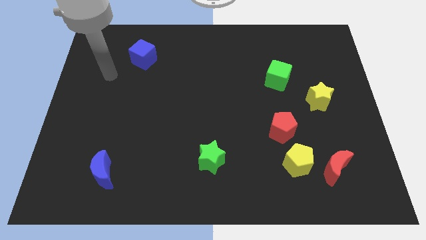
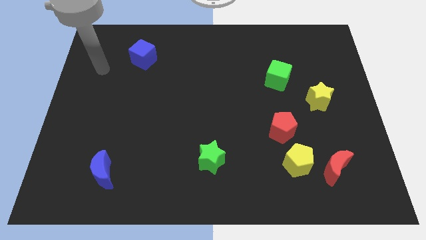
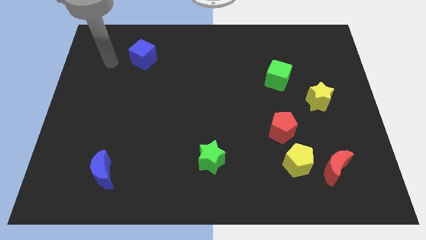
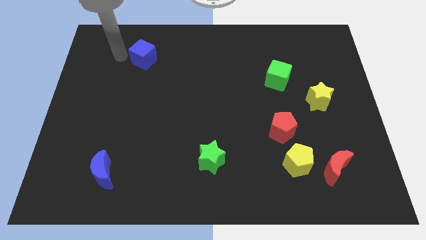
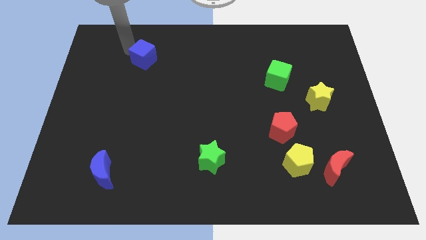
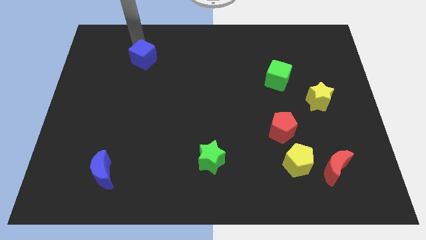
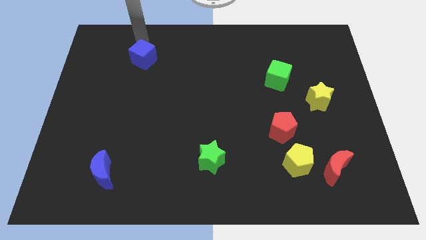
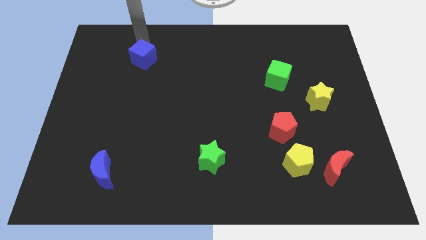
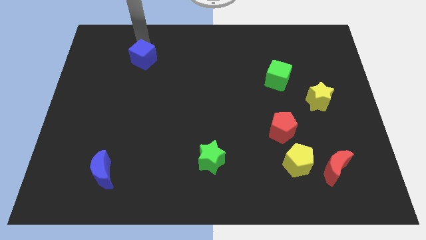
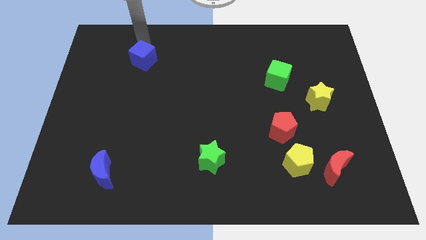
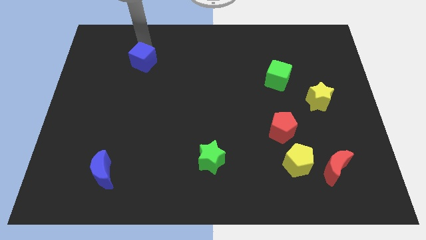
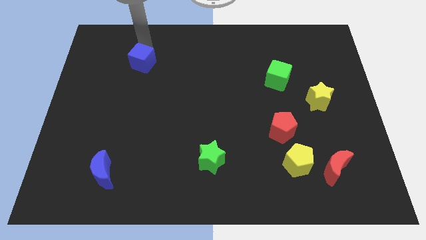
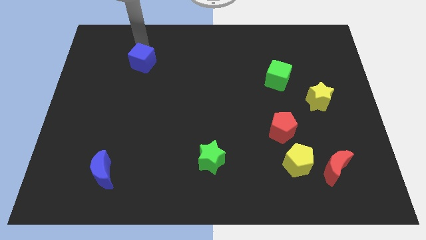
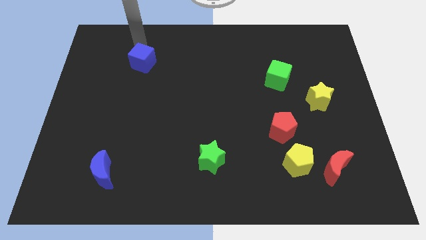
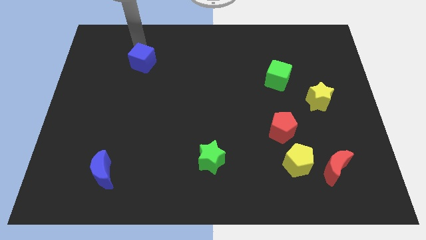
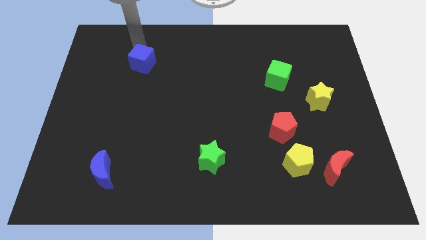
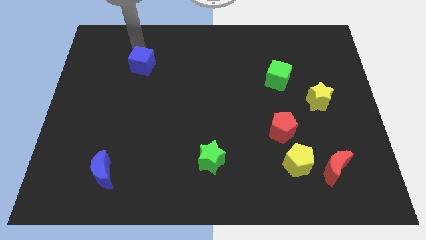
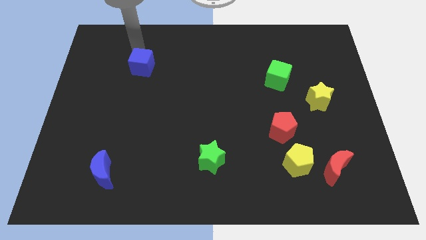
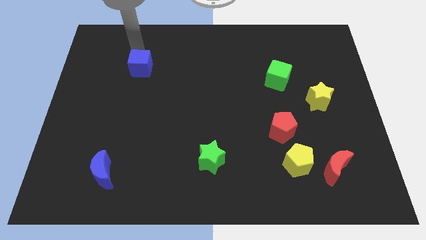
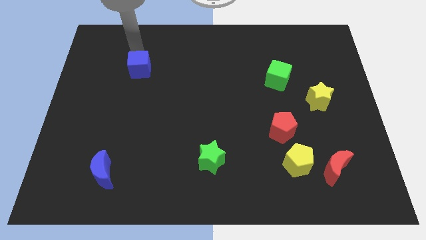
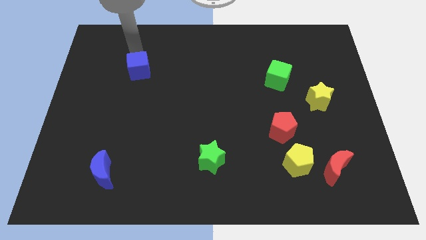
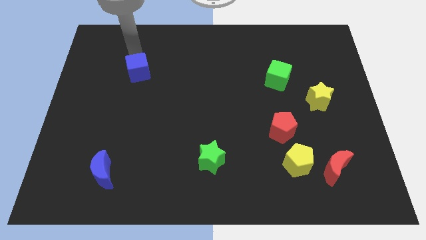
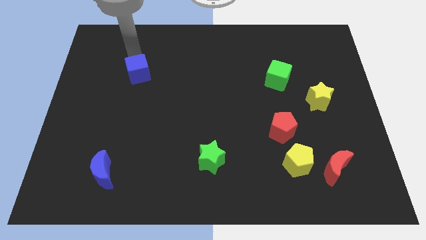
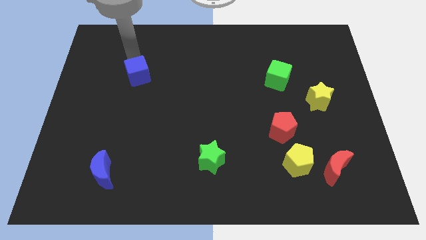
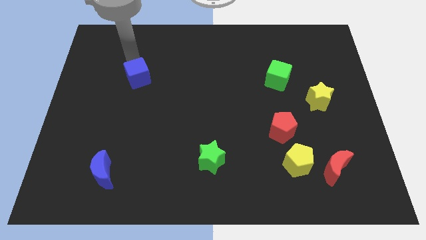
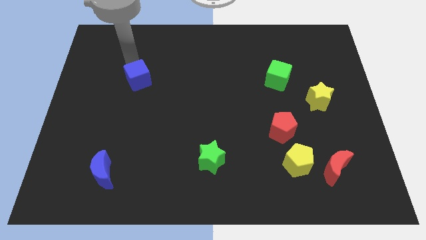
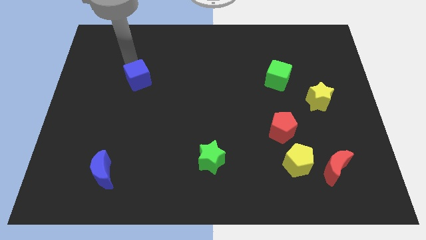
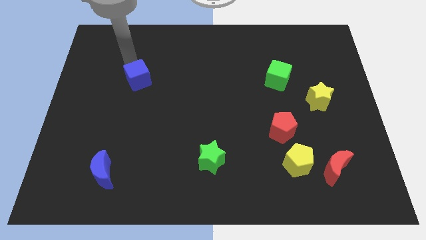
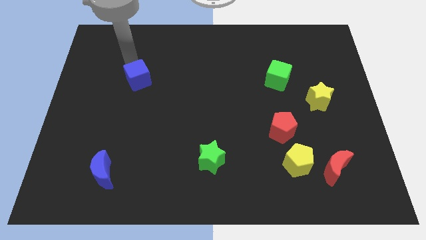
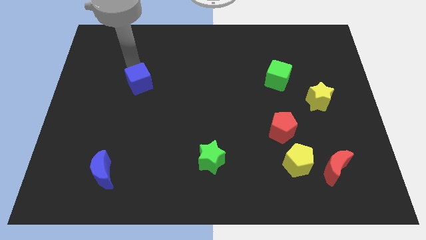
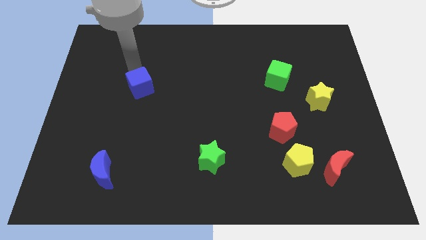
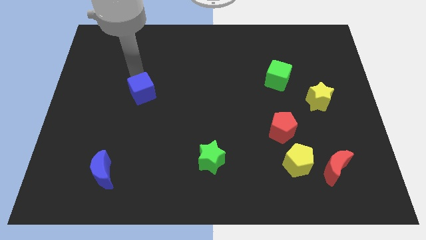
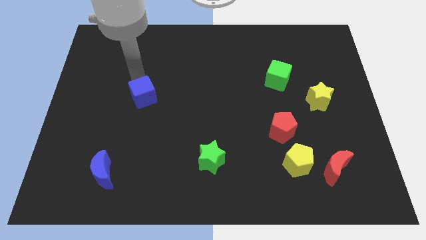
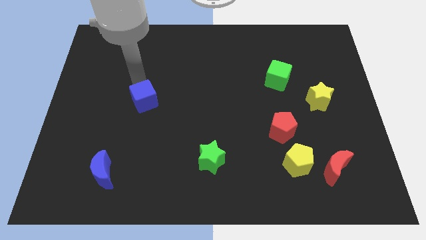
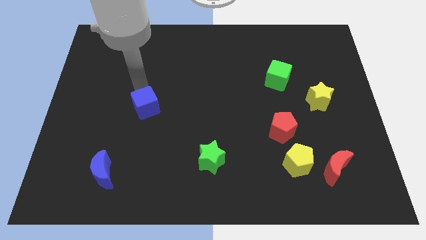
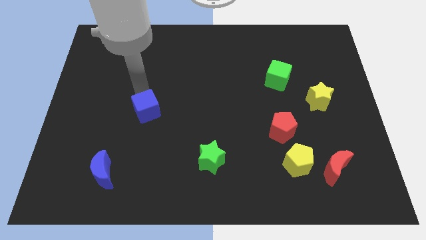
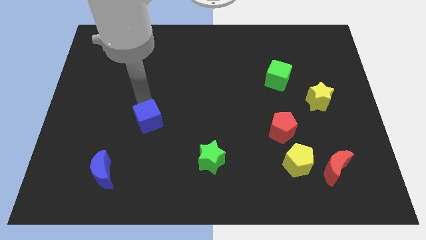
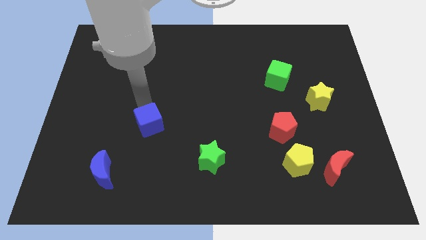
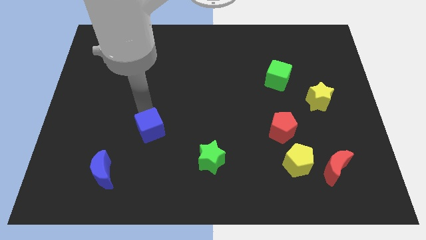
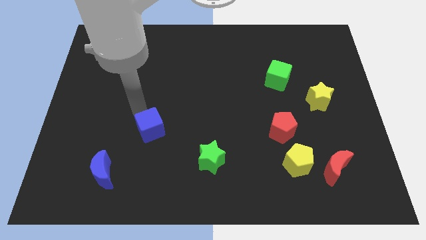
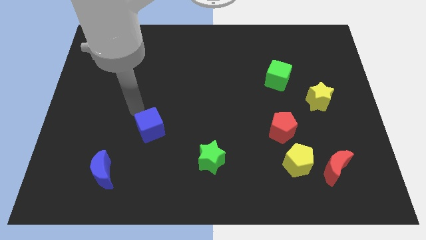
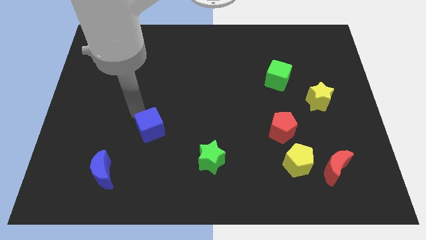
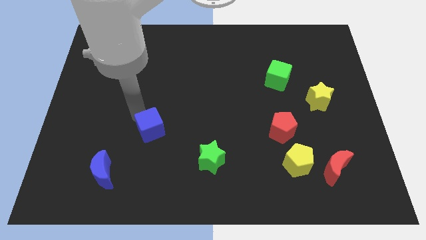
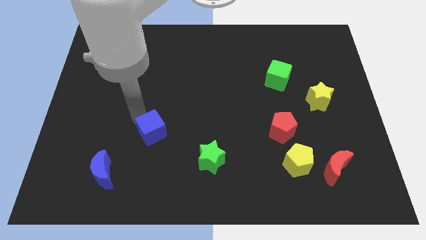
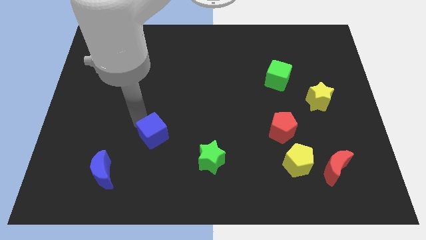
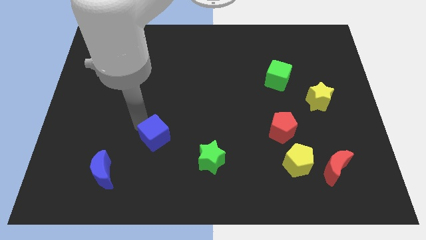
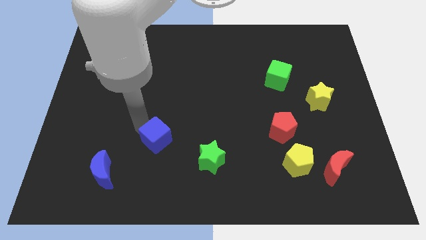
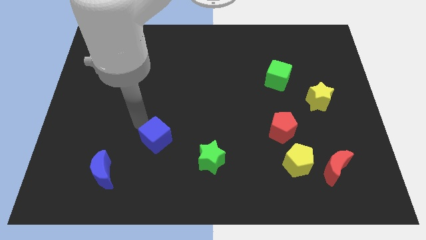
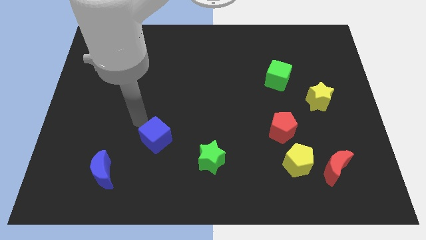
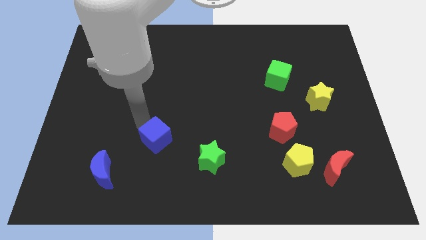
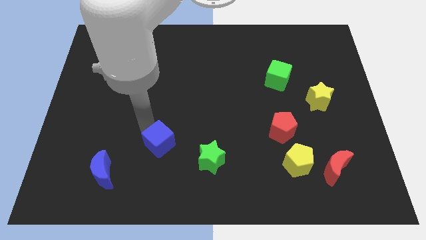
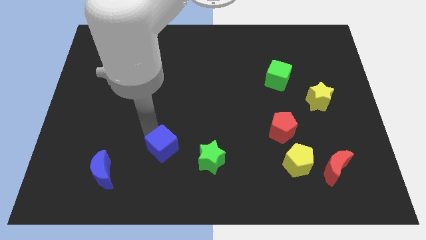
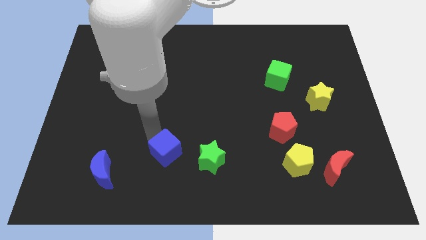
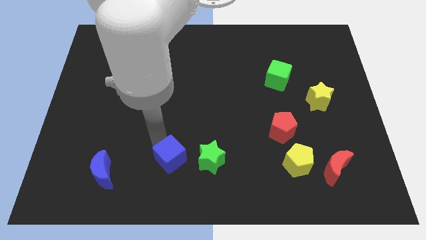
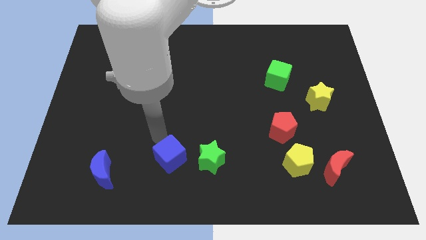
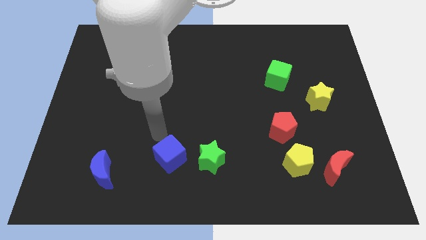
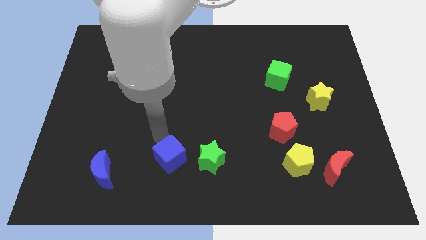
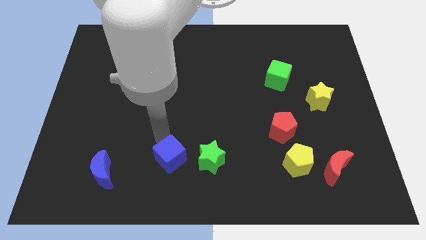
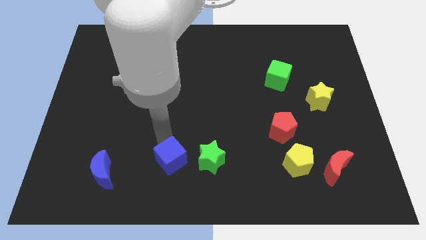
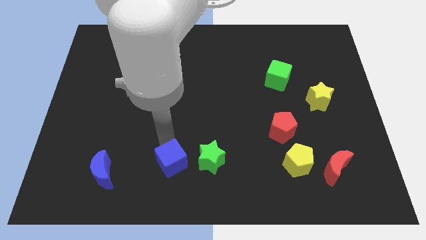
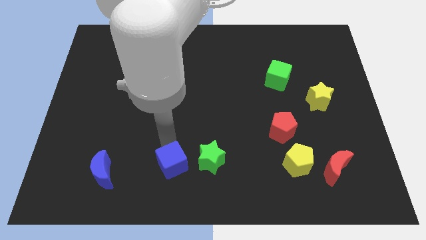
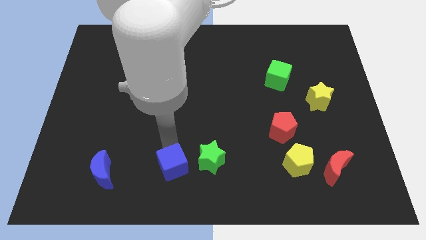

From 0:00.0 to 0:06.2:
push the blue cube to the bottom

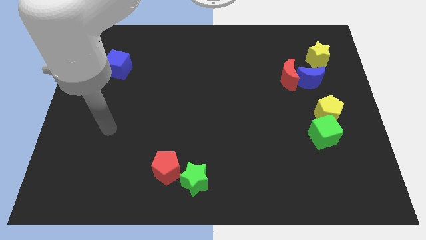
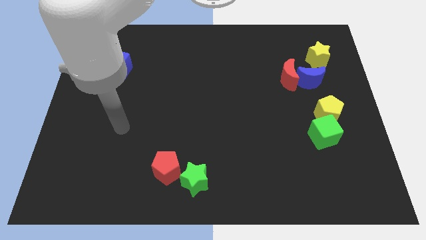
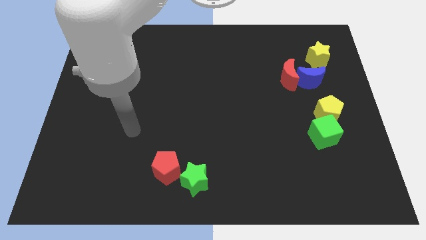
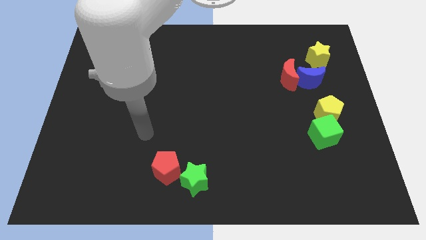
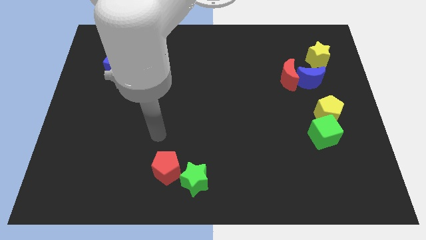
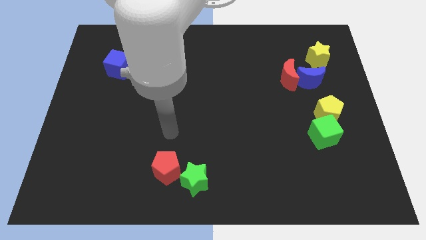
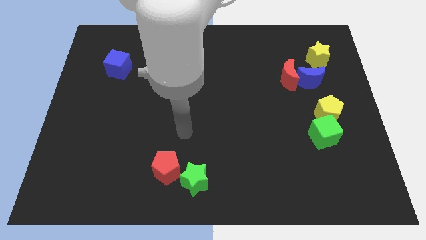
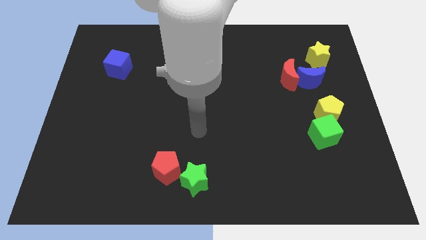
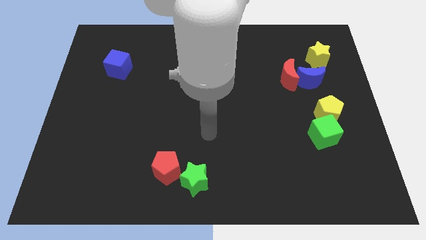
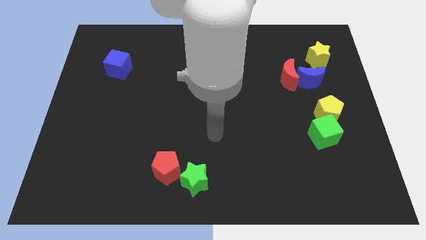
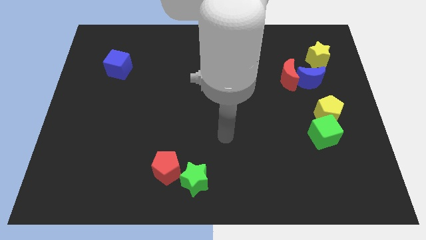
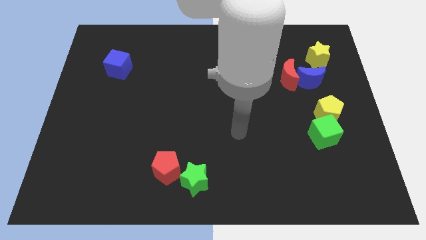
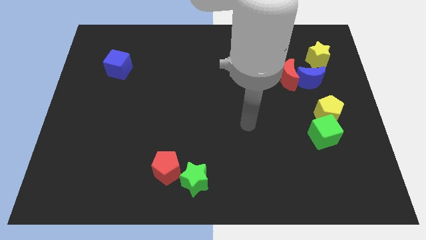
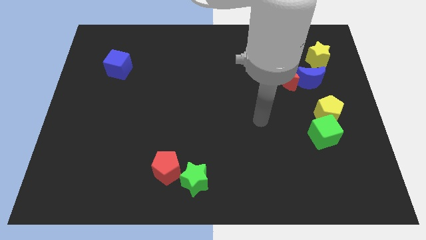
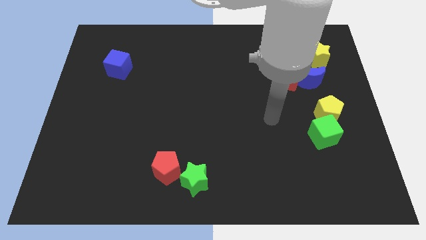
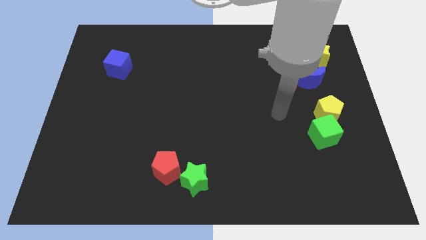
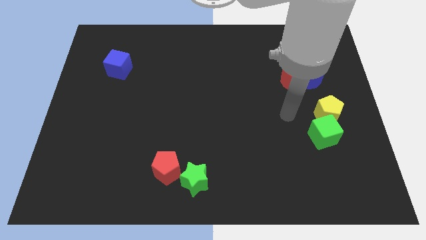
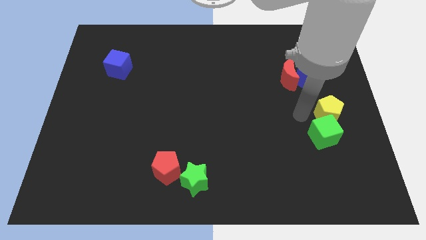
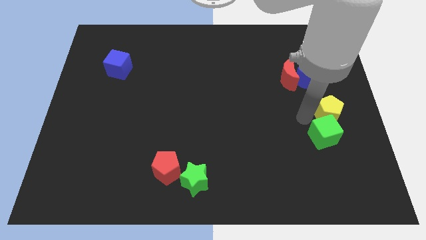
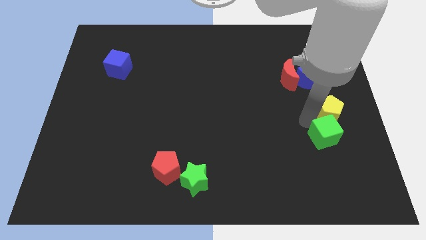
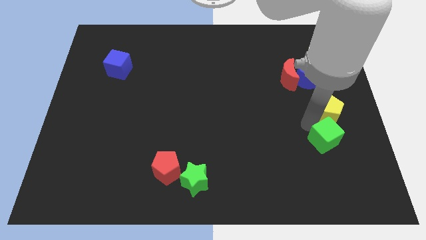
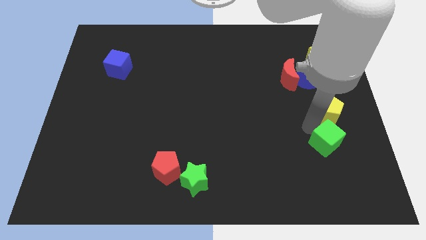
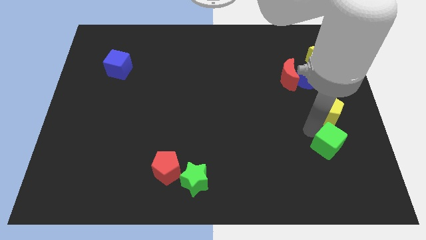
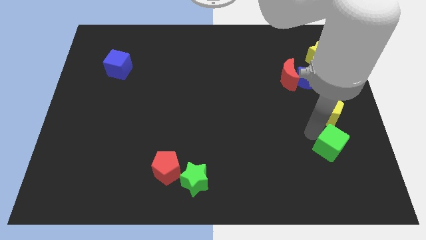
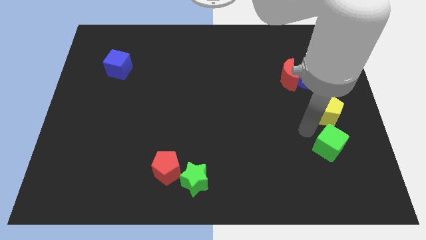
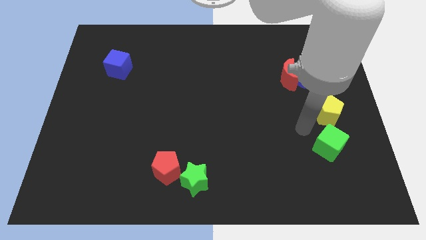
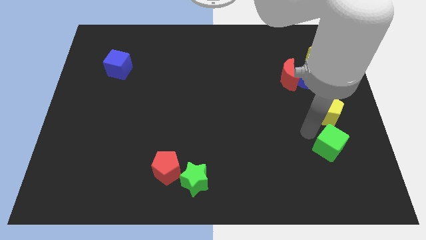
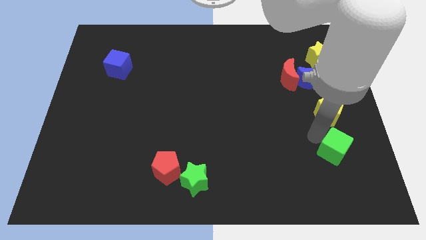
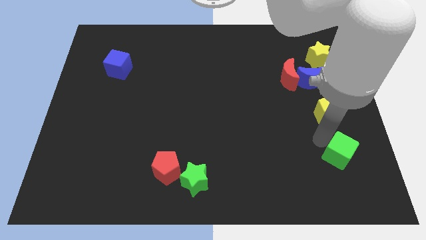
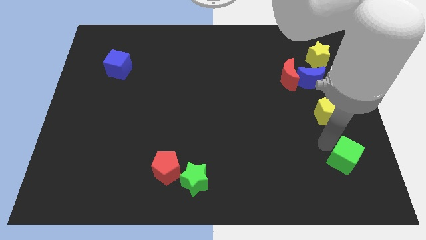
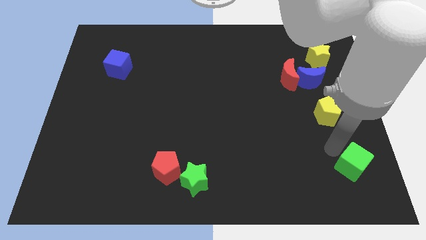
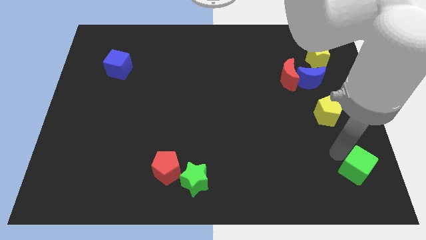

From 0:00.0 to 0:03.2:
move the green cube to the bottom right of the board
